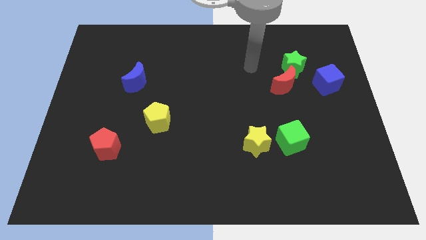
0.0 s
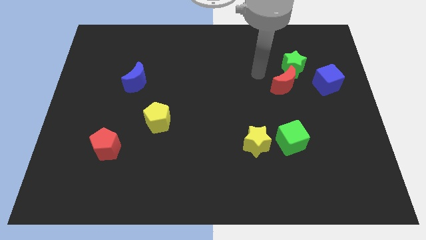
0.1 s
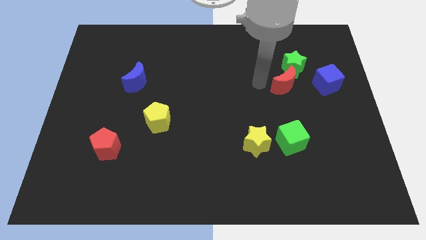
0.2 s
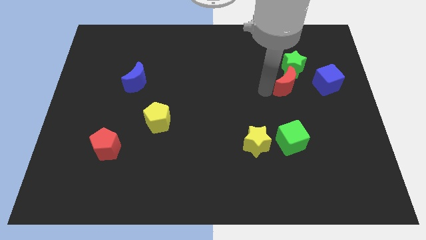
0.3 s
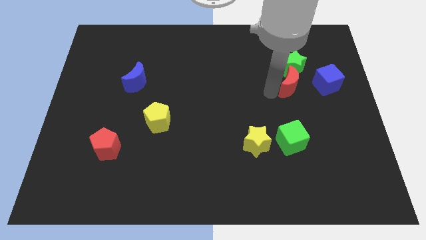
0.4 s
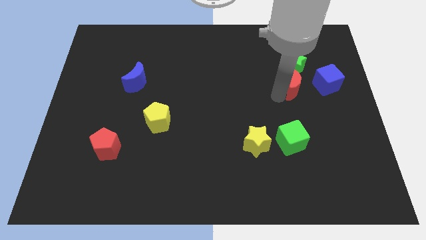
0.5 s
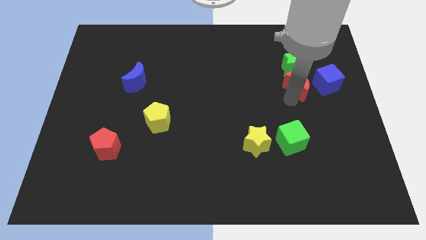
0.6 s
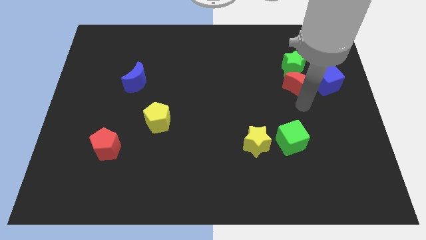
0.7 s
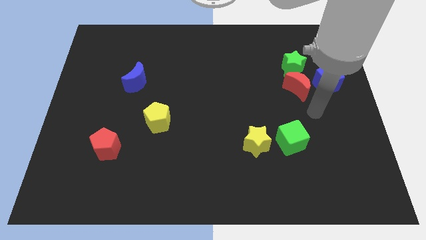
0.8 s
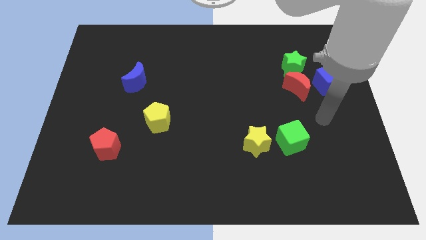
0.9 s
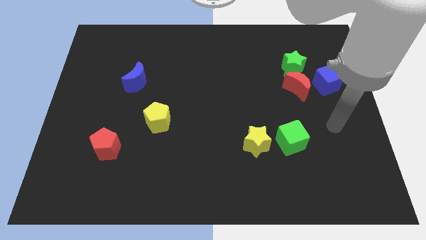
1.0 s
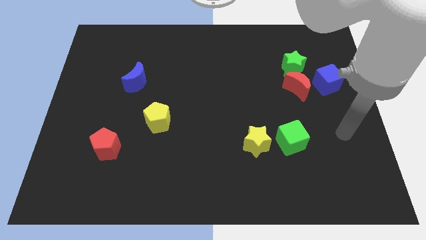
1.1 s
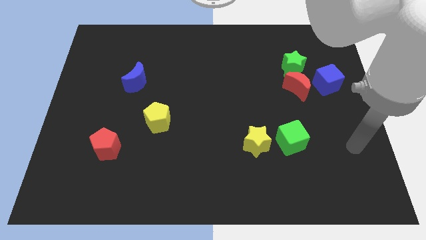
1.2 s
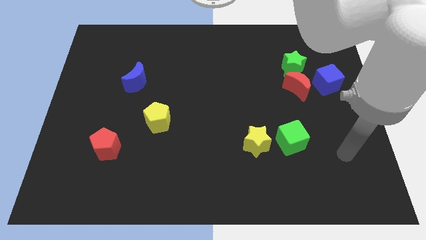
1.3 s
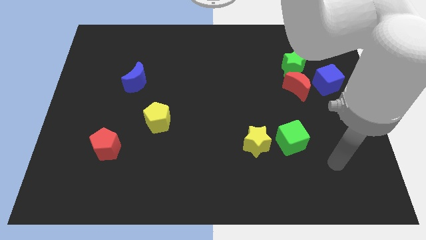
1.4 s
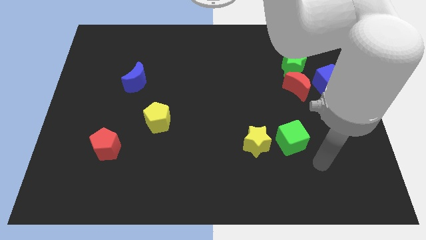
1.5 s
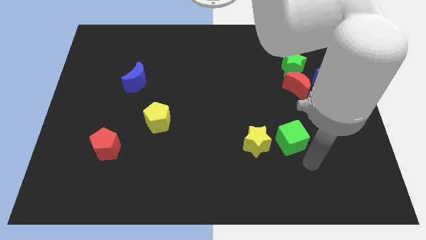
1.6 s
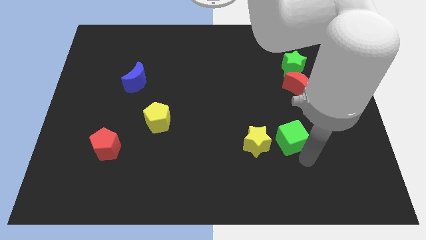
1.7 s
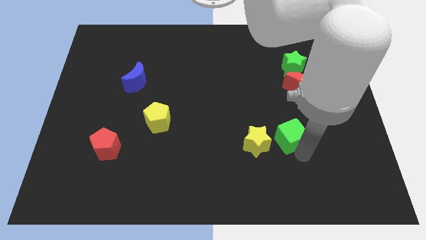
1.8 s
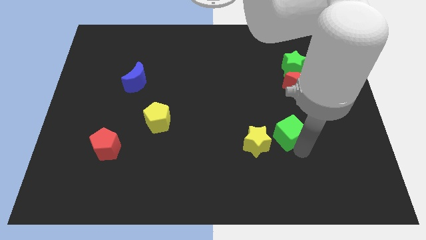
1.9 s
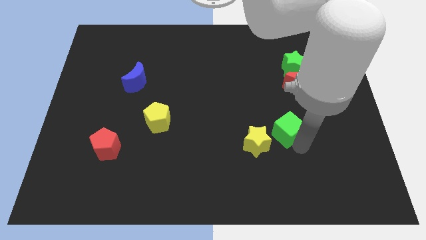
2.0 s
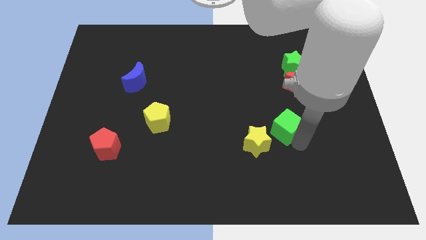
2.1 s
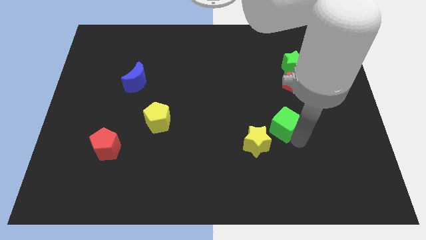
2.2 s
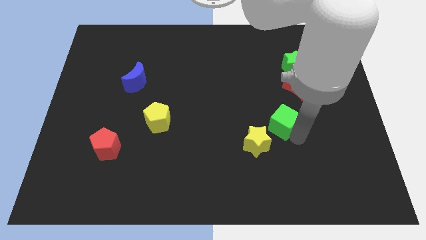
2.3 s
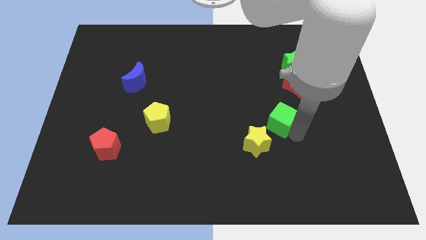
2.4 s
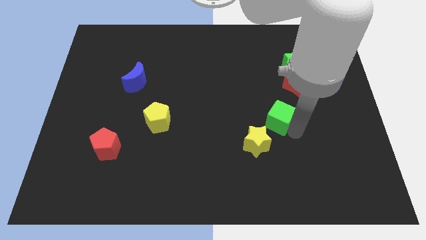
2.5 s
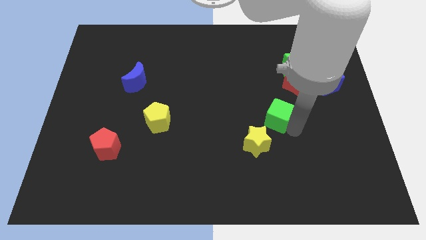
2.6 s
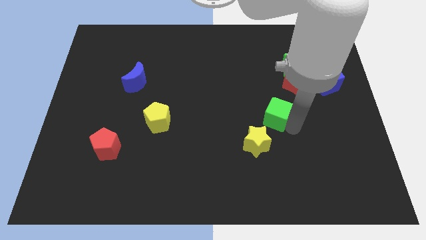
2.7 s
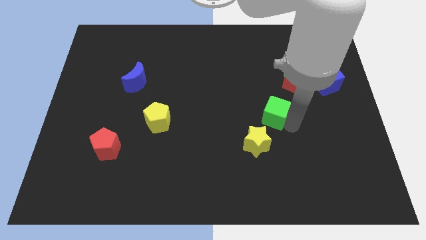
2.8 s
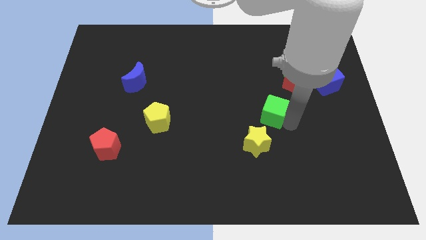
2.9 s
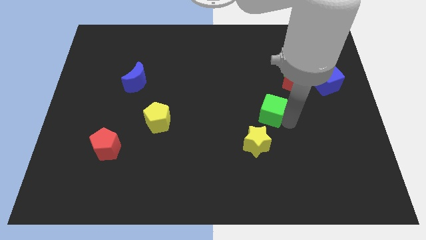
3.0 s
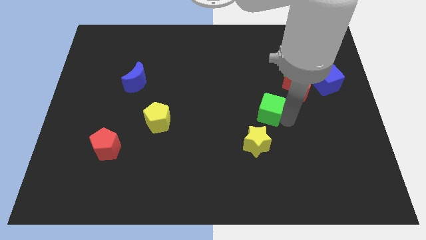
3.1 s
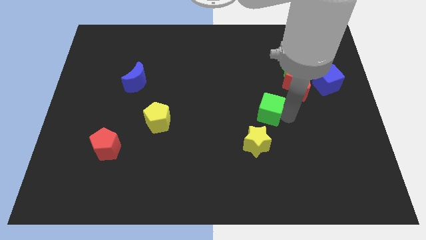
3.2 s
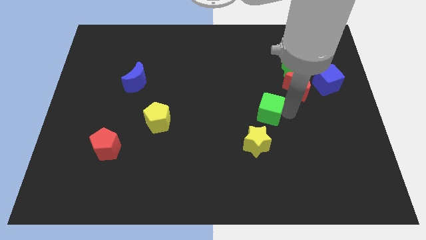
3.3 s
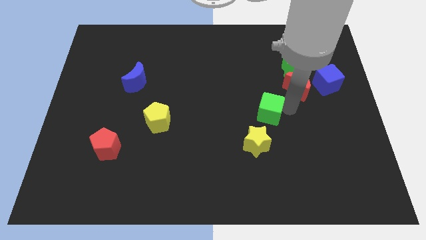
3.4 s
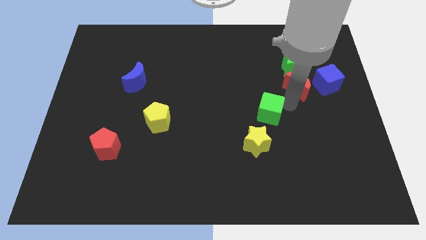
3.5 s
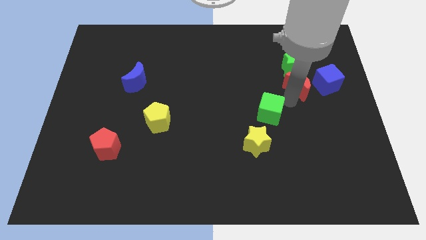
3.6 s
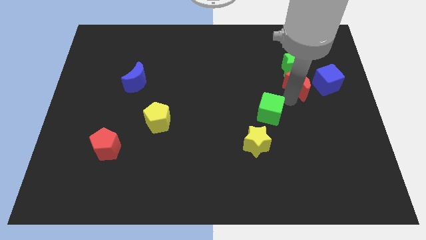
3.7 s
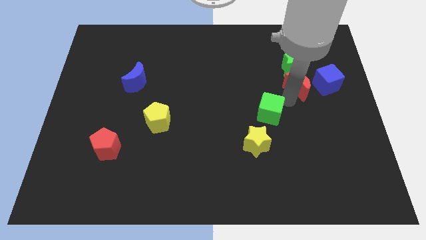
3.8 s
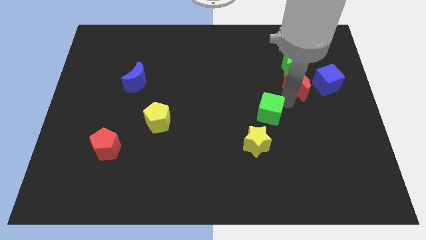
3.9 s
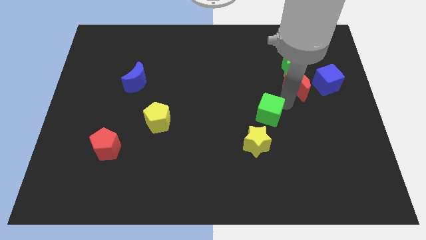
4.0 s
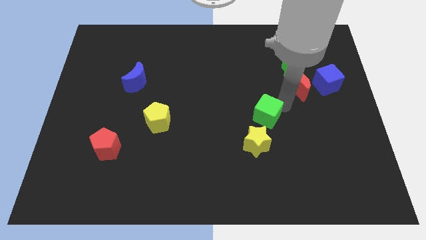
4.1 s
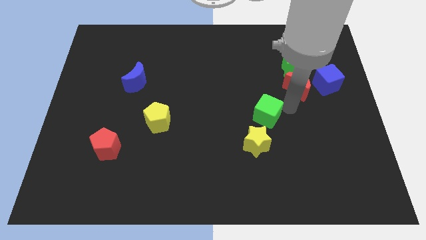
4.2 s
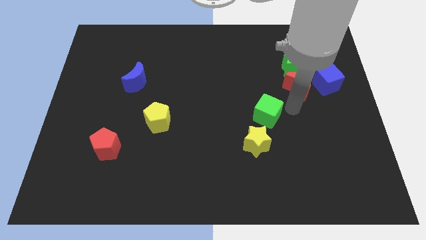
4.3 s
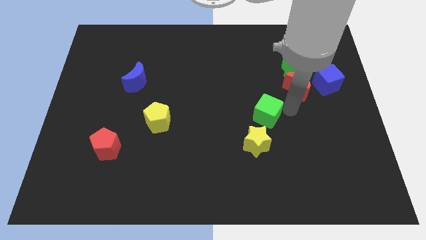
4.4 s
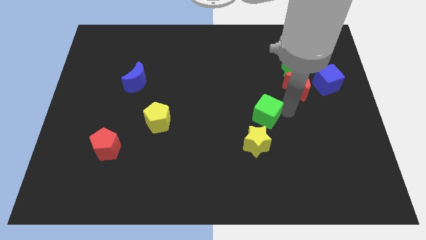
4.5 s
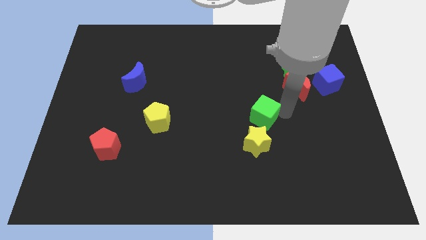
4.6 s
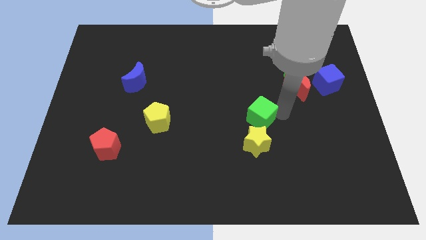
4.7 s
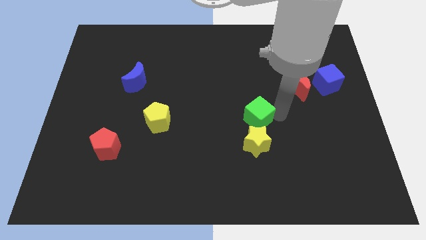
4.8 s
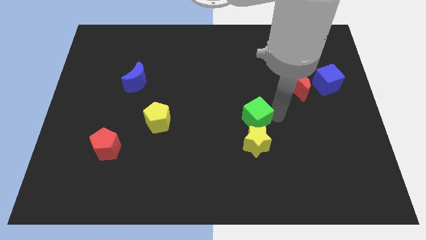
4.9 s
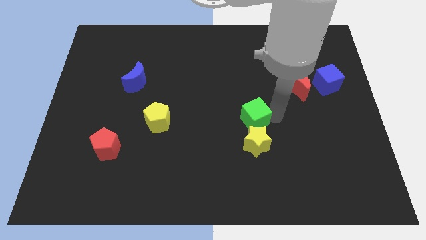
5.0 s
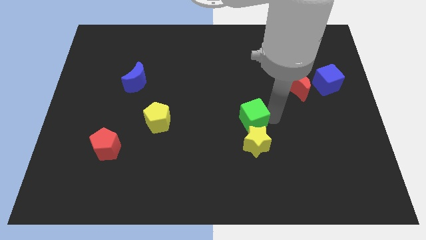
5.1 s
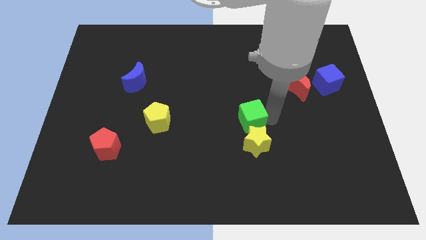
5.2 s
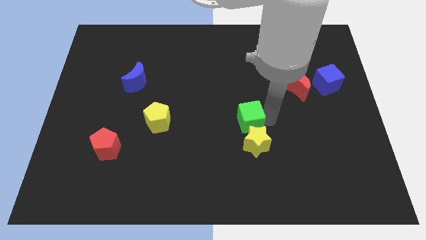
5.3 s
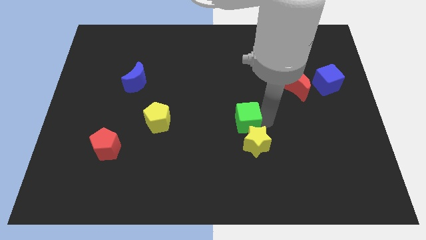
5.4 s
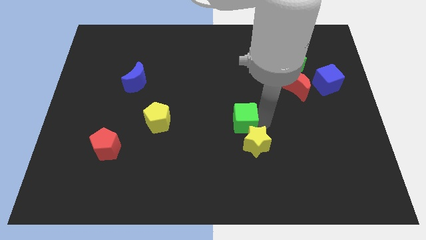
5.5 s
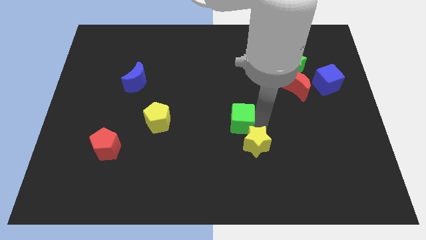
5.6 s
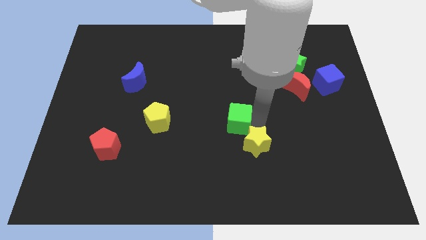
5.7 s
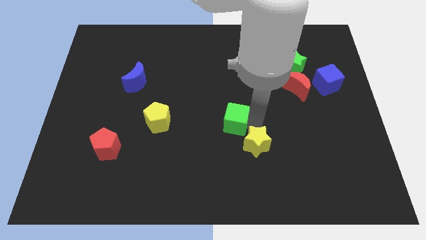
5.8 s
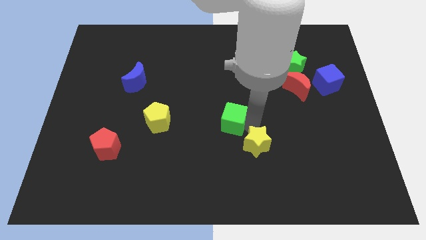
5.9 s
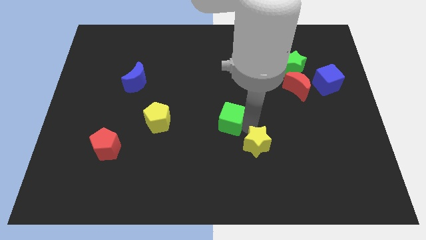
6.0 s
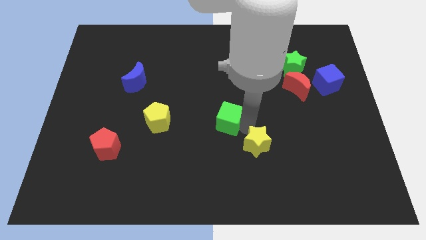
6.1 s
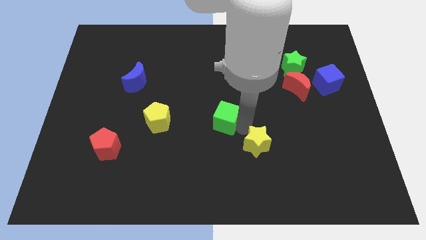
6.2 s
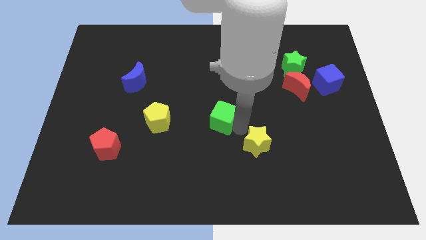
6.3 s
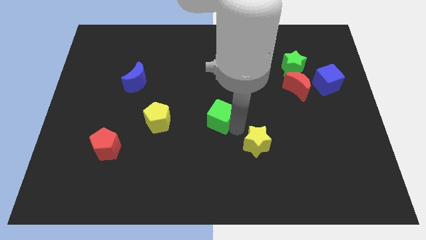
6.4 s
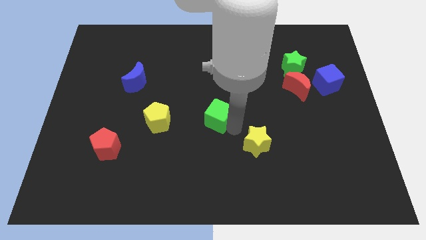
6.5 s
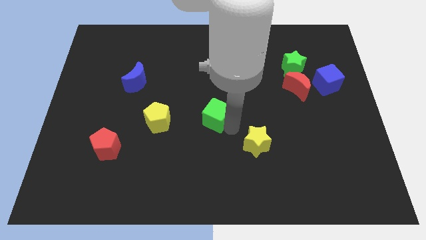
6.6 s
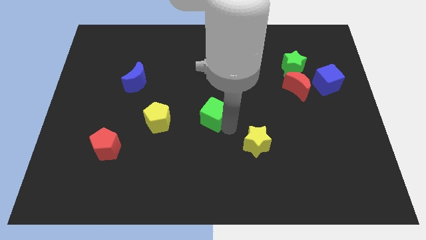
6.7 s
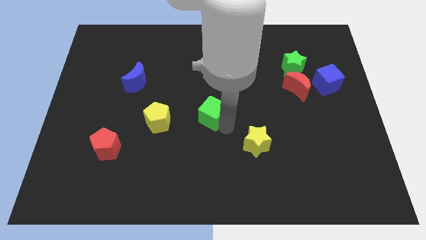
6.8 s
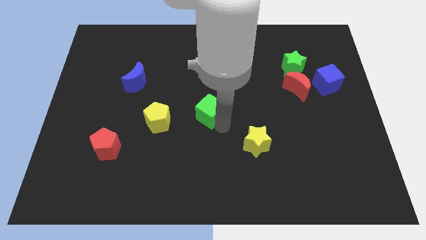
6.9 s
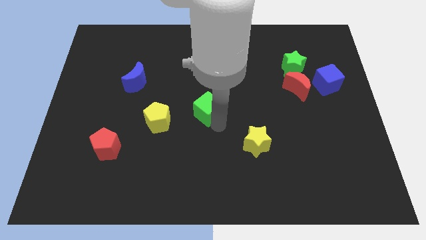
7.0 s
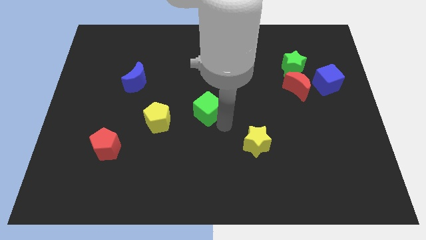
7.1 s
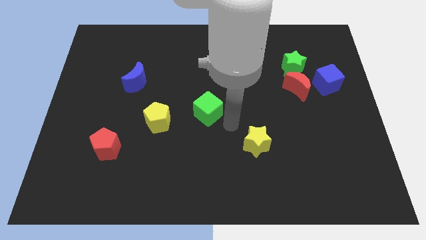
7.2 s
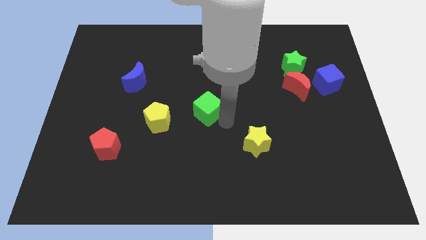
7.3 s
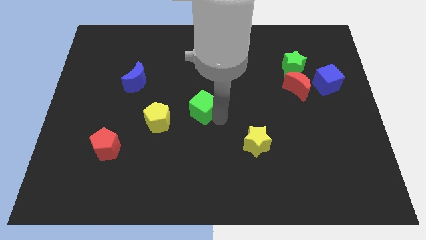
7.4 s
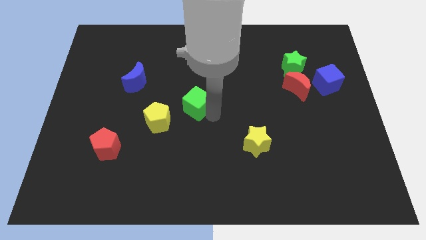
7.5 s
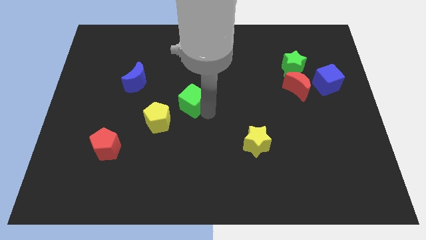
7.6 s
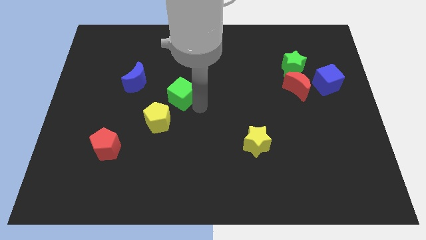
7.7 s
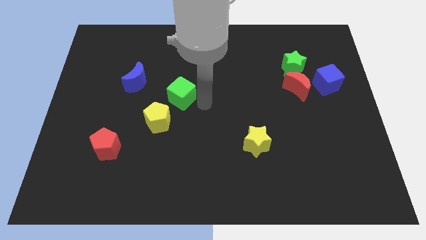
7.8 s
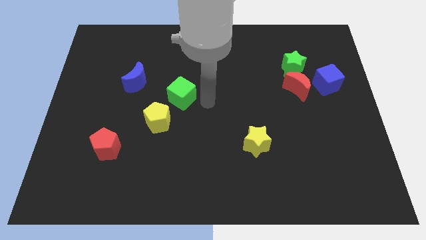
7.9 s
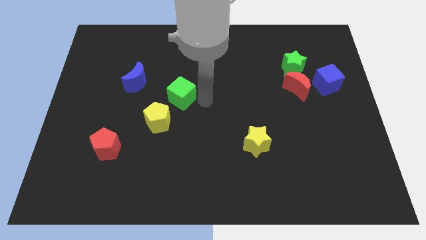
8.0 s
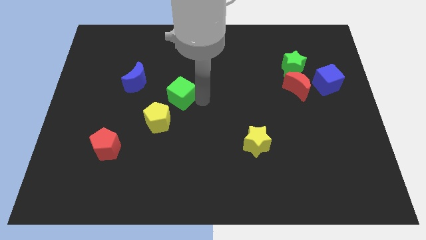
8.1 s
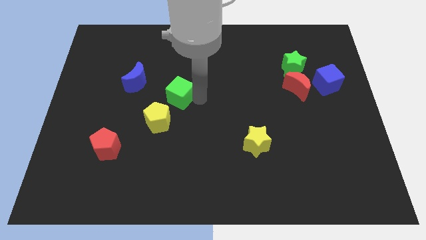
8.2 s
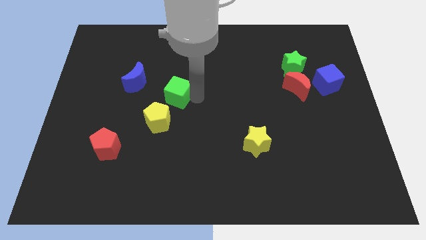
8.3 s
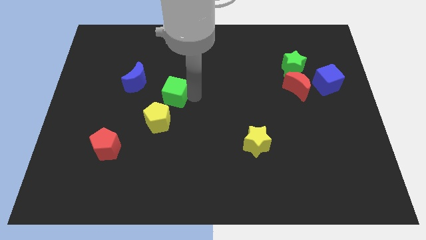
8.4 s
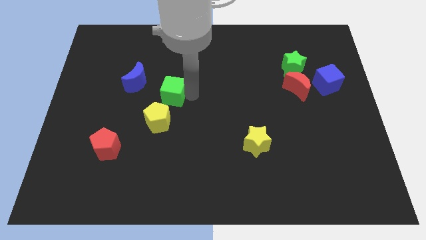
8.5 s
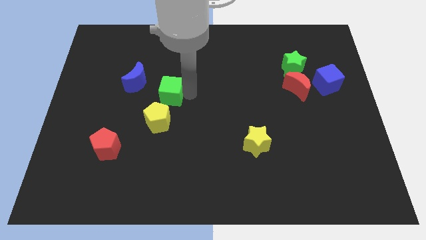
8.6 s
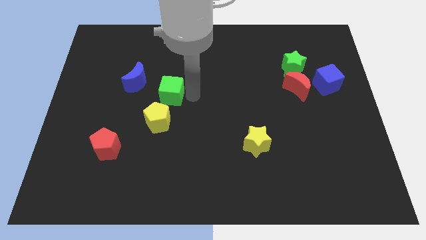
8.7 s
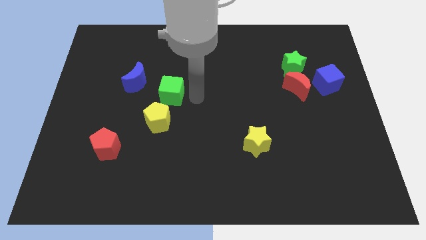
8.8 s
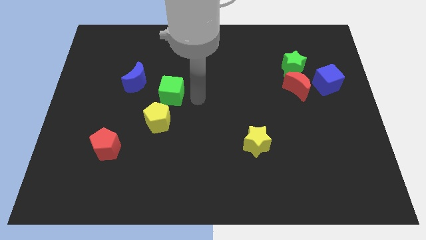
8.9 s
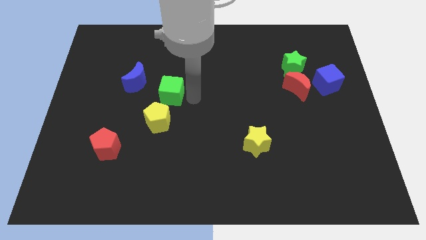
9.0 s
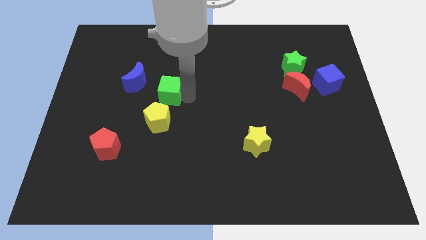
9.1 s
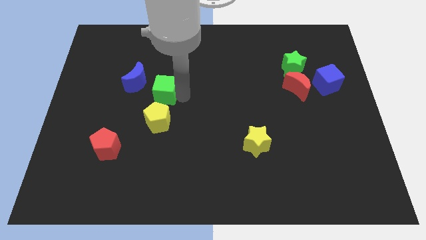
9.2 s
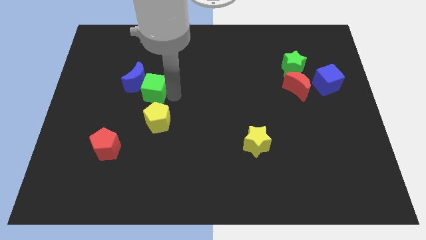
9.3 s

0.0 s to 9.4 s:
slide the green cube towards the blue moon
